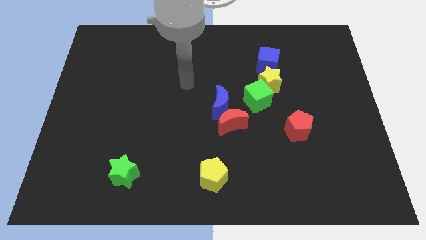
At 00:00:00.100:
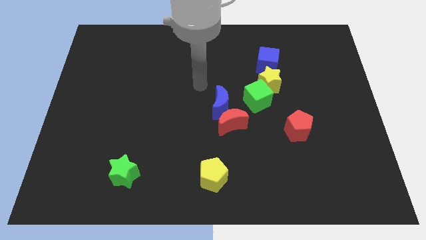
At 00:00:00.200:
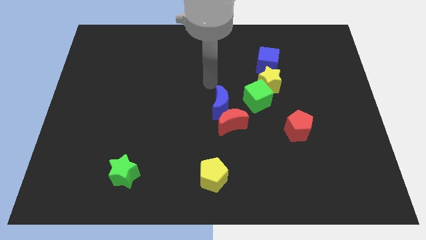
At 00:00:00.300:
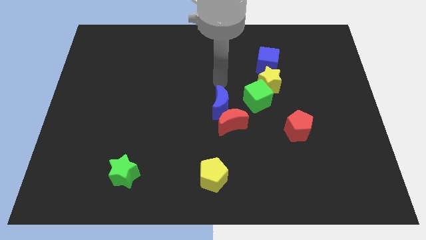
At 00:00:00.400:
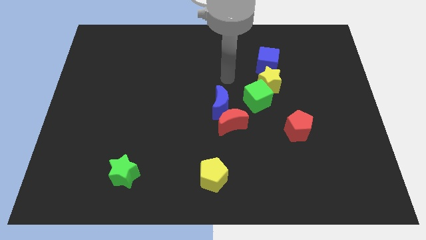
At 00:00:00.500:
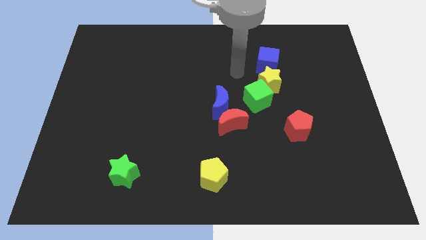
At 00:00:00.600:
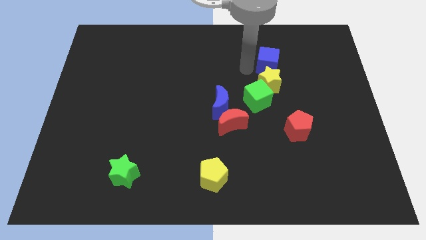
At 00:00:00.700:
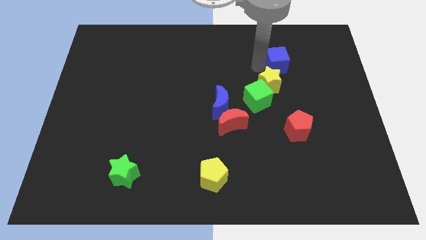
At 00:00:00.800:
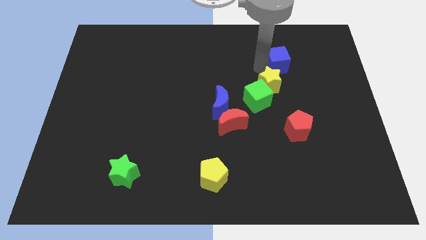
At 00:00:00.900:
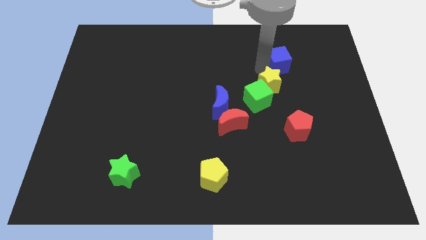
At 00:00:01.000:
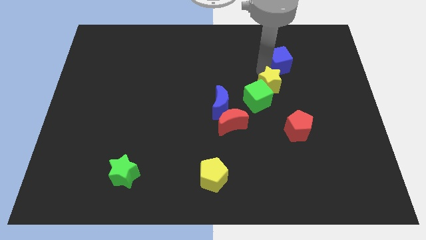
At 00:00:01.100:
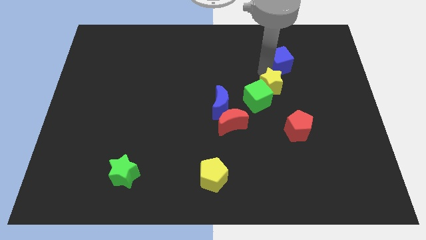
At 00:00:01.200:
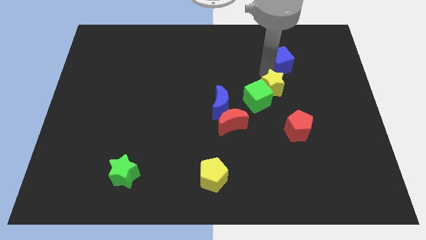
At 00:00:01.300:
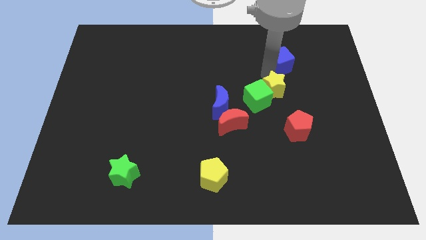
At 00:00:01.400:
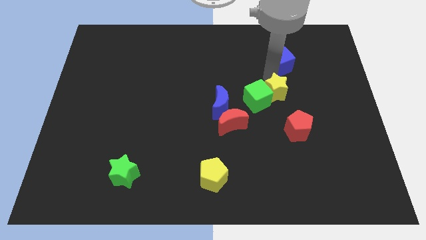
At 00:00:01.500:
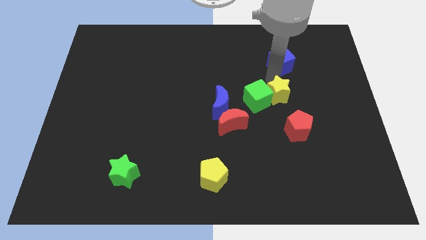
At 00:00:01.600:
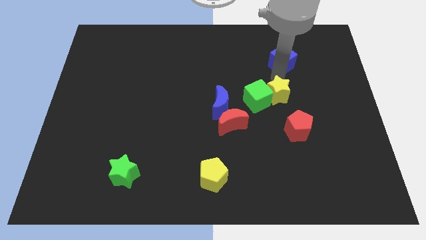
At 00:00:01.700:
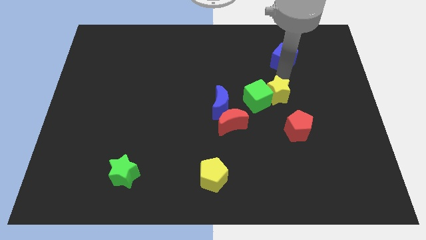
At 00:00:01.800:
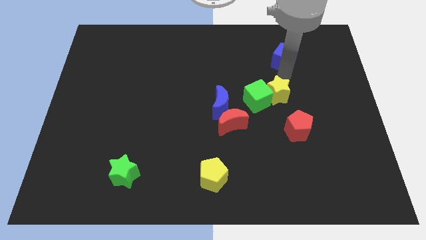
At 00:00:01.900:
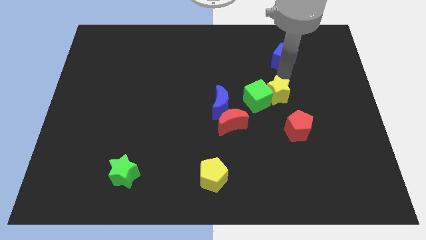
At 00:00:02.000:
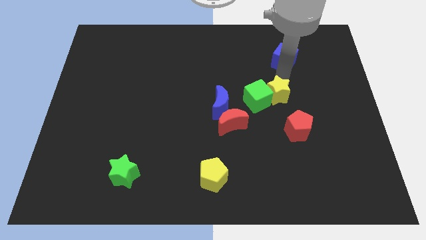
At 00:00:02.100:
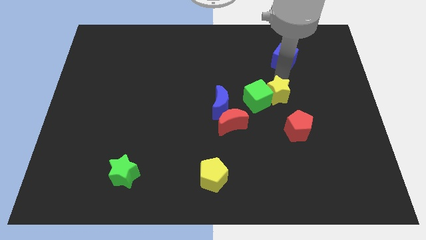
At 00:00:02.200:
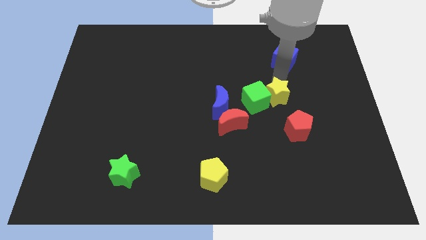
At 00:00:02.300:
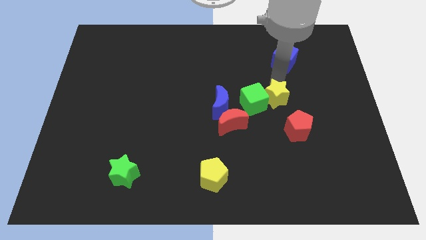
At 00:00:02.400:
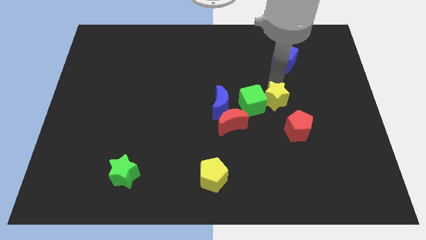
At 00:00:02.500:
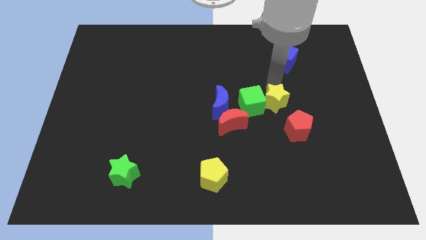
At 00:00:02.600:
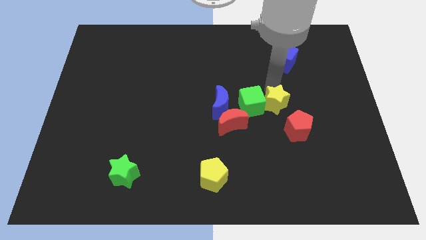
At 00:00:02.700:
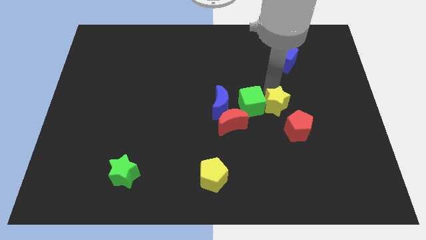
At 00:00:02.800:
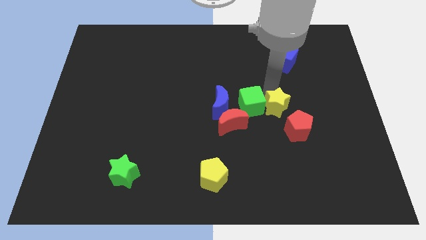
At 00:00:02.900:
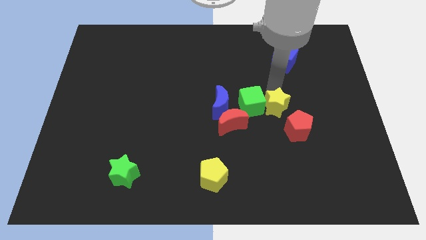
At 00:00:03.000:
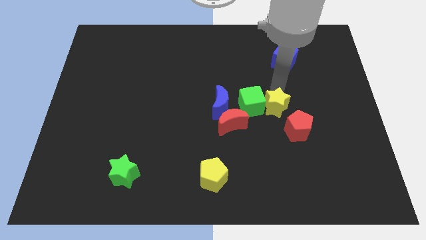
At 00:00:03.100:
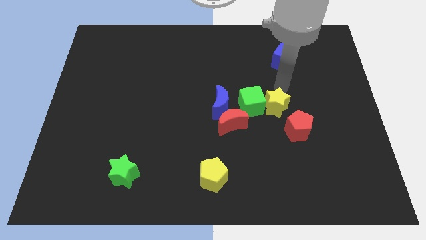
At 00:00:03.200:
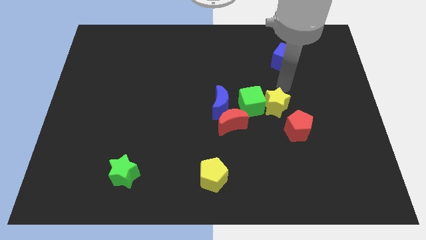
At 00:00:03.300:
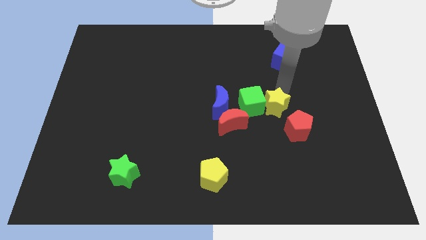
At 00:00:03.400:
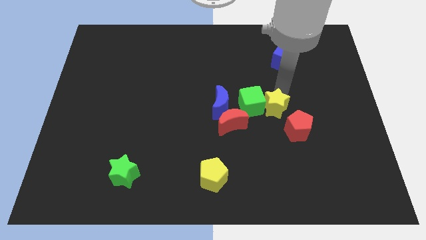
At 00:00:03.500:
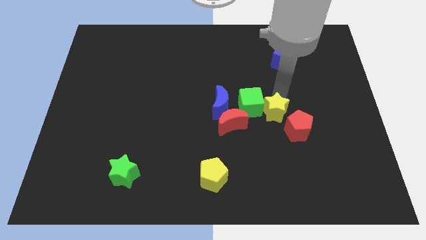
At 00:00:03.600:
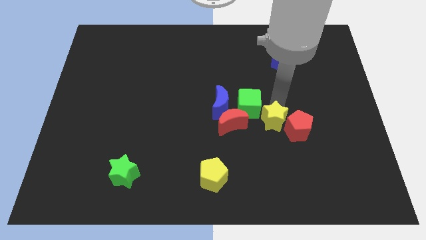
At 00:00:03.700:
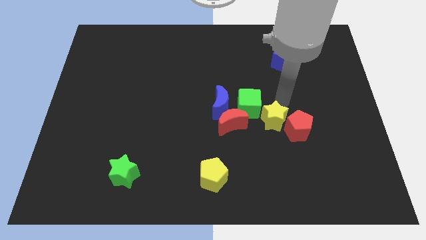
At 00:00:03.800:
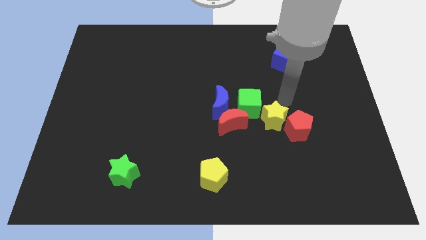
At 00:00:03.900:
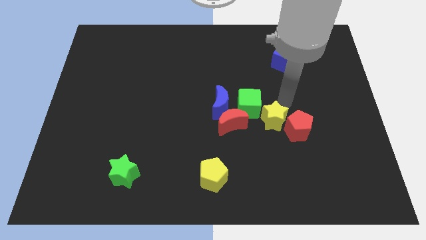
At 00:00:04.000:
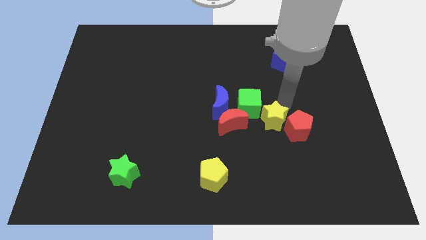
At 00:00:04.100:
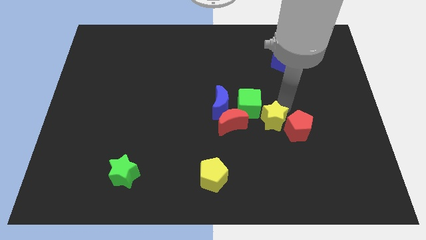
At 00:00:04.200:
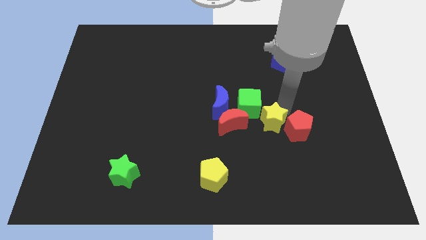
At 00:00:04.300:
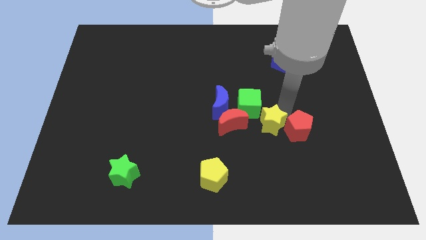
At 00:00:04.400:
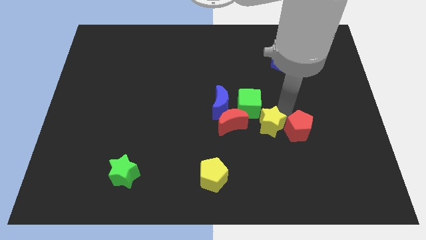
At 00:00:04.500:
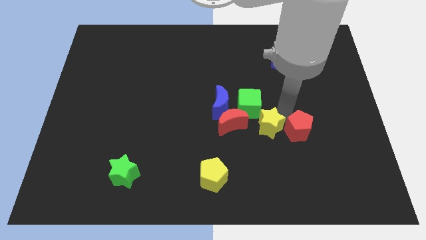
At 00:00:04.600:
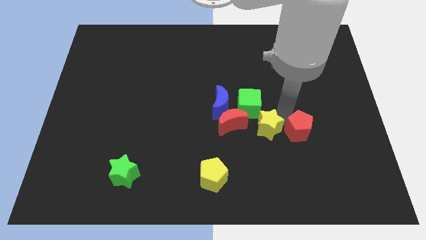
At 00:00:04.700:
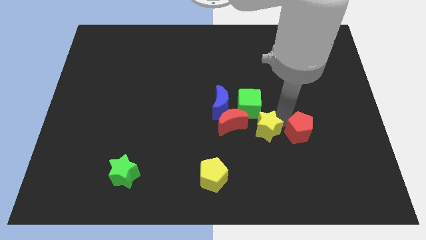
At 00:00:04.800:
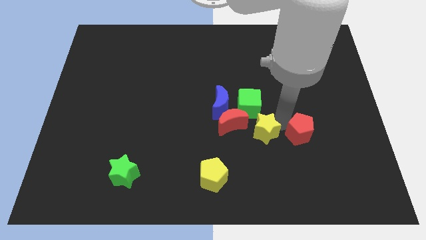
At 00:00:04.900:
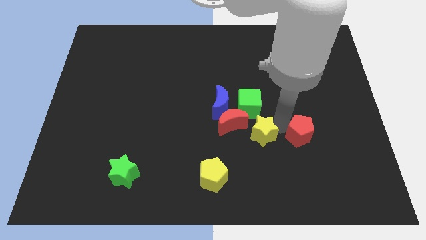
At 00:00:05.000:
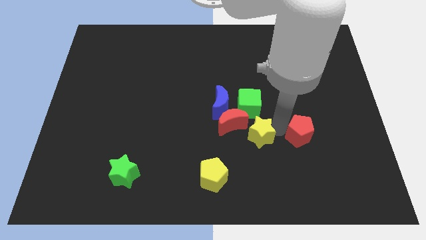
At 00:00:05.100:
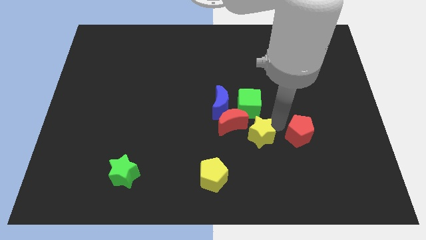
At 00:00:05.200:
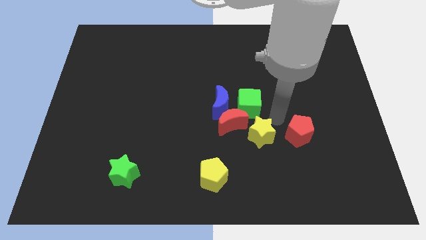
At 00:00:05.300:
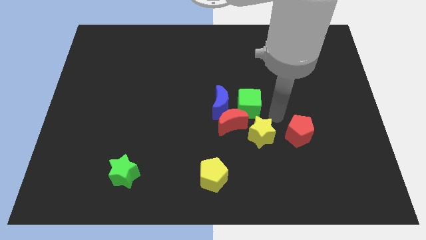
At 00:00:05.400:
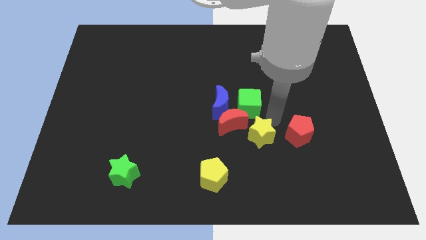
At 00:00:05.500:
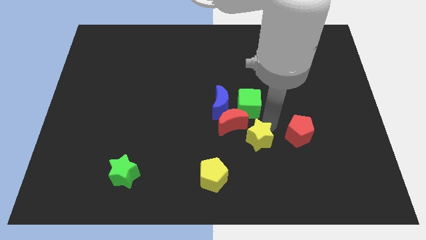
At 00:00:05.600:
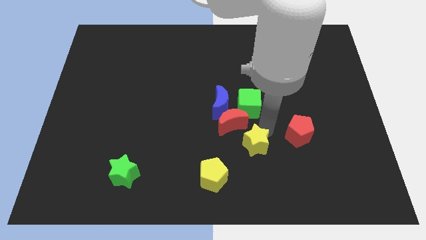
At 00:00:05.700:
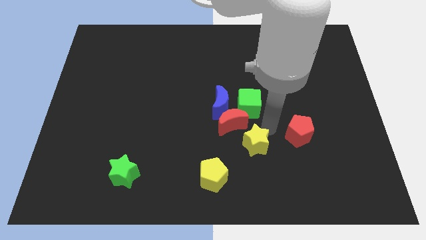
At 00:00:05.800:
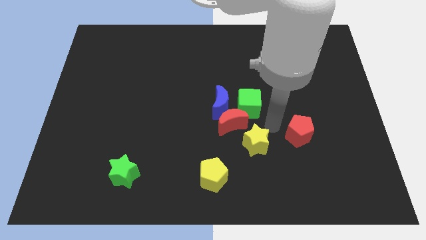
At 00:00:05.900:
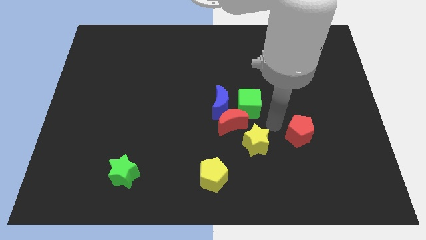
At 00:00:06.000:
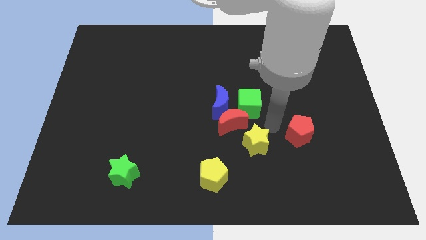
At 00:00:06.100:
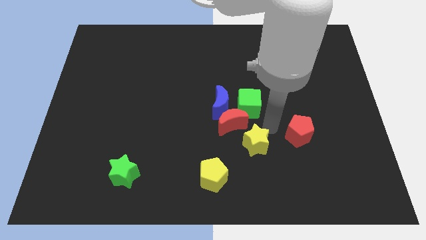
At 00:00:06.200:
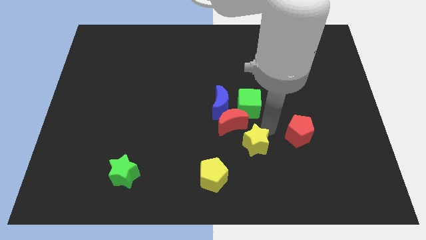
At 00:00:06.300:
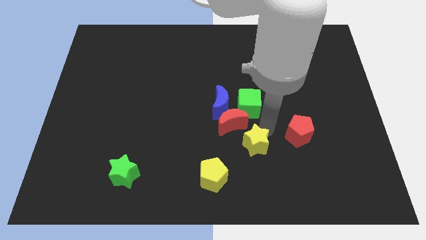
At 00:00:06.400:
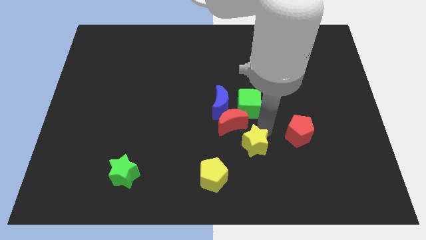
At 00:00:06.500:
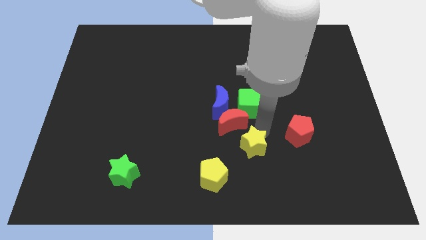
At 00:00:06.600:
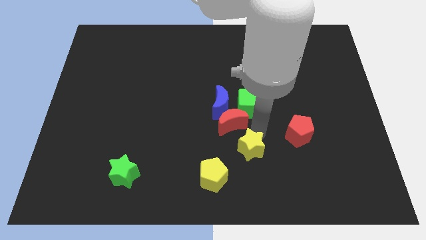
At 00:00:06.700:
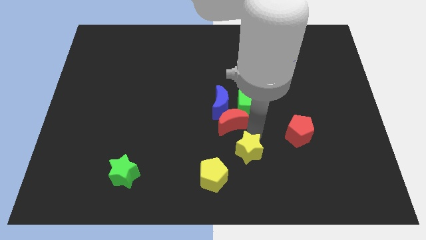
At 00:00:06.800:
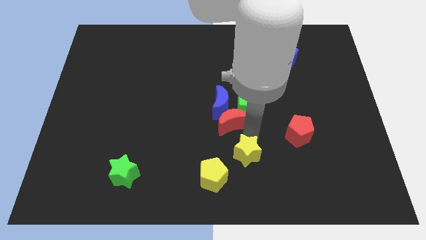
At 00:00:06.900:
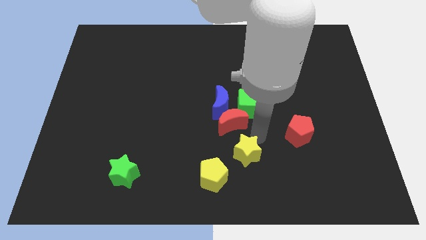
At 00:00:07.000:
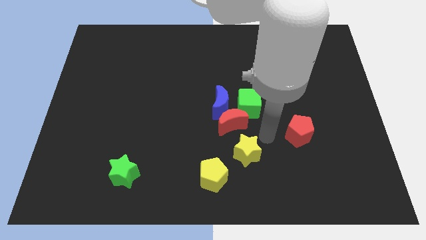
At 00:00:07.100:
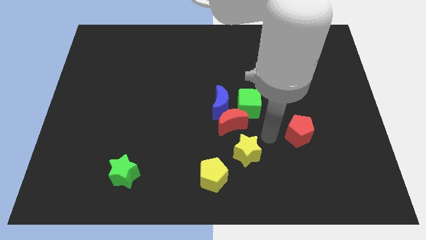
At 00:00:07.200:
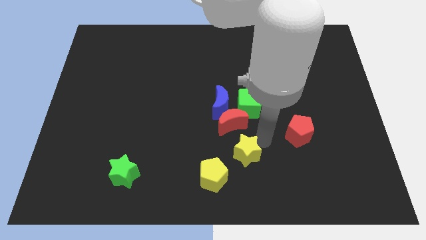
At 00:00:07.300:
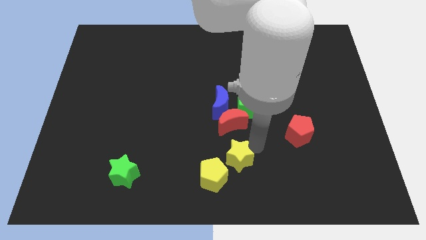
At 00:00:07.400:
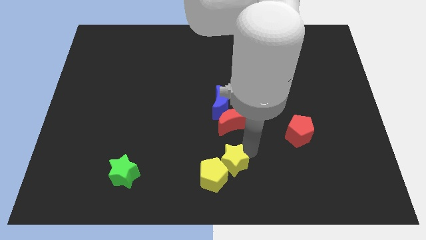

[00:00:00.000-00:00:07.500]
push the yellow star to the yellow pentagon
